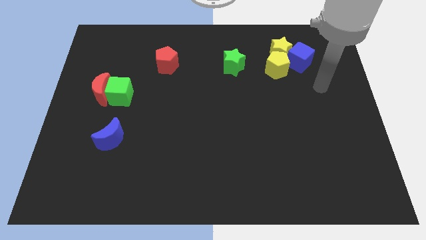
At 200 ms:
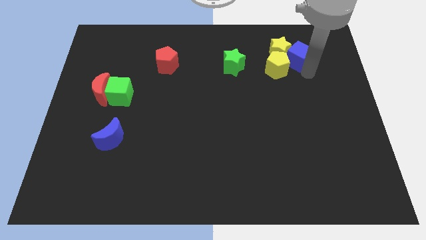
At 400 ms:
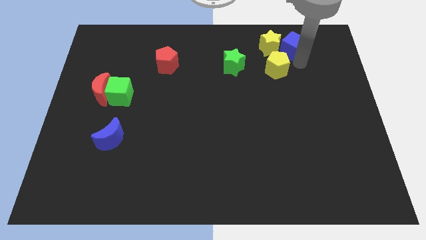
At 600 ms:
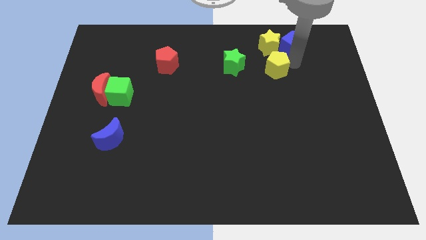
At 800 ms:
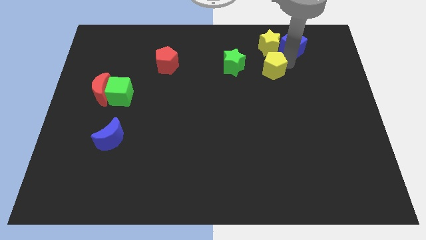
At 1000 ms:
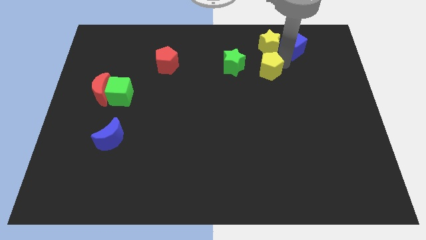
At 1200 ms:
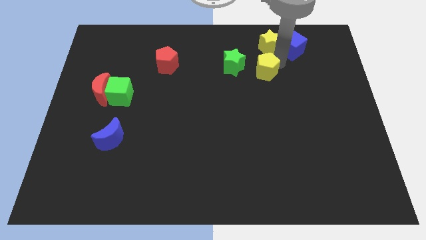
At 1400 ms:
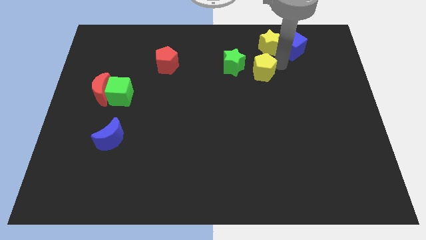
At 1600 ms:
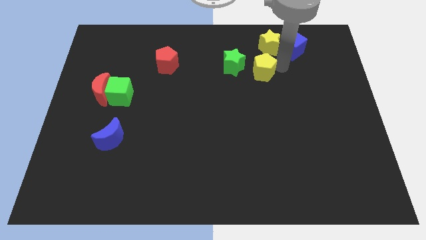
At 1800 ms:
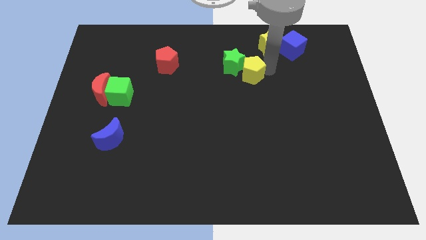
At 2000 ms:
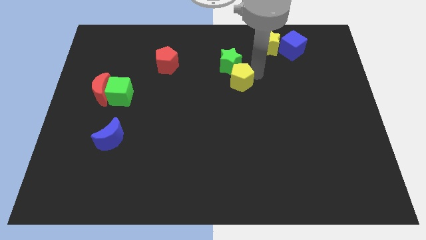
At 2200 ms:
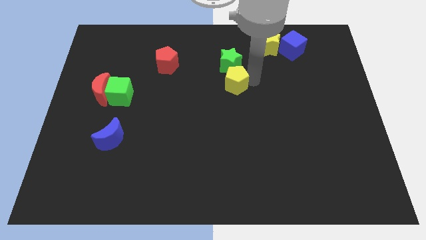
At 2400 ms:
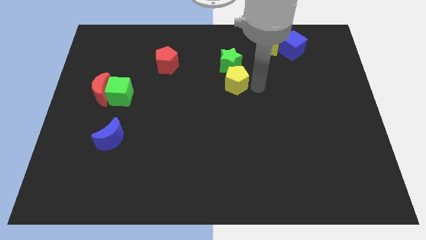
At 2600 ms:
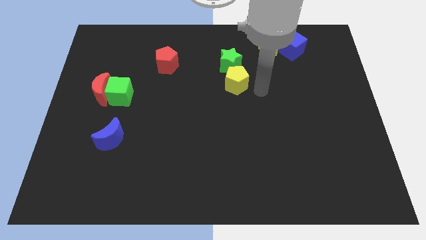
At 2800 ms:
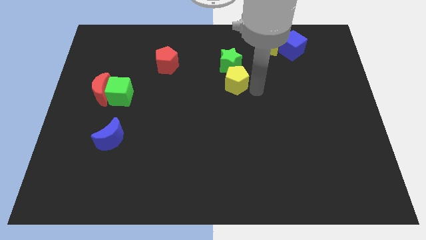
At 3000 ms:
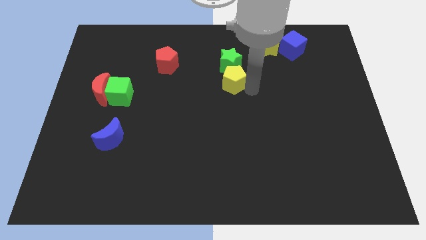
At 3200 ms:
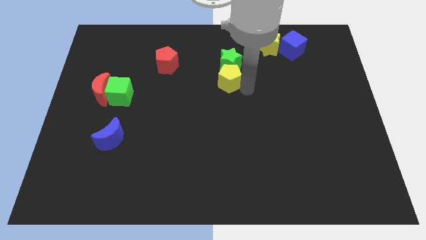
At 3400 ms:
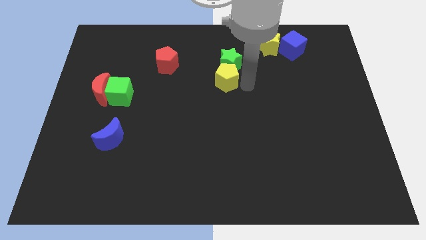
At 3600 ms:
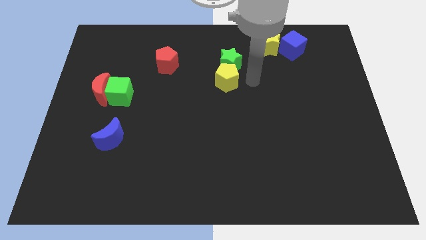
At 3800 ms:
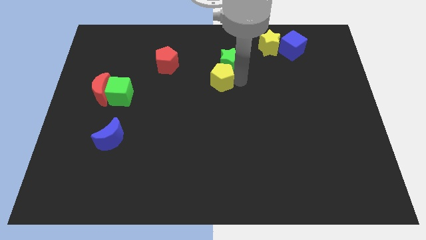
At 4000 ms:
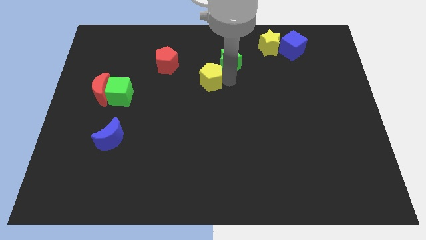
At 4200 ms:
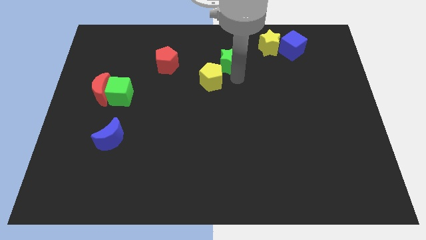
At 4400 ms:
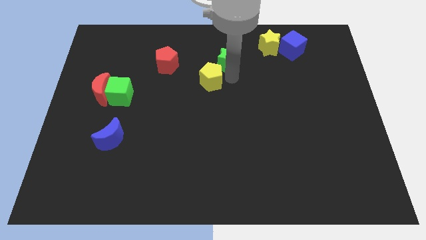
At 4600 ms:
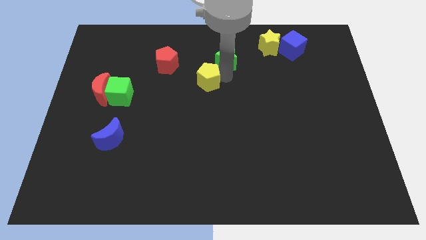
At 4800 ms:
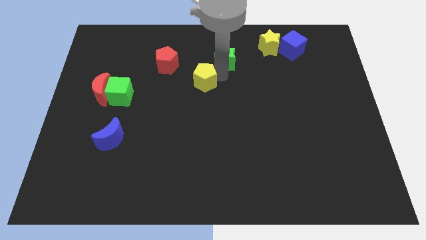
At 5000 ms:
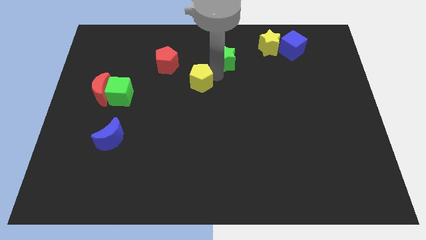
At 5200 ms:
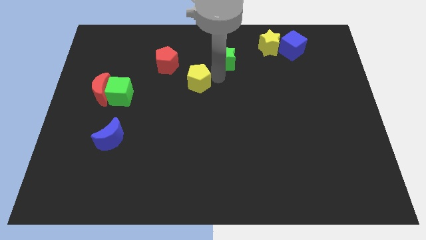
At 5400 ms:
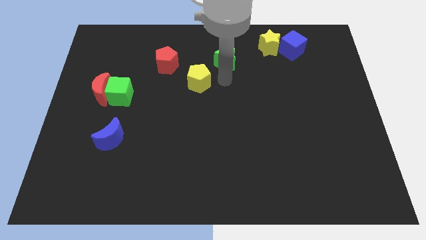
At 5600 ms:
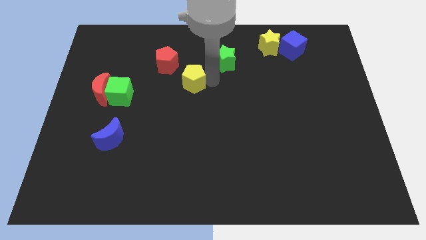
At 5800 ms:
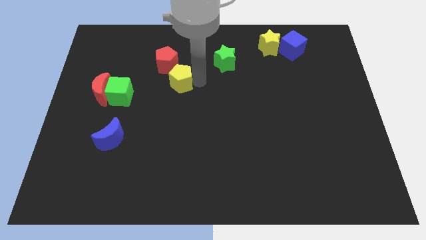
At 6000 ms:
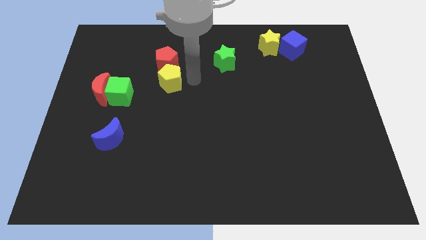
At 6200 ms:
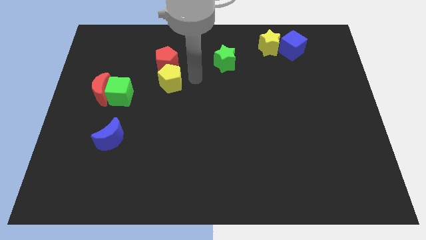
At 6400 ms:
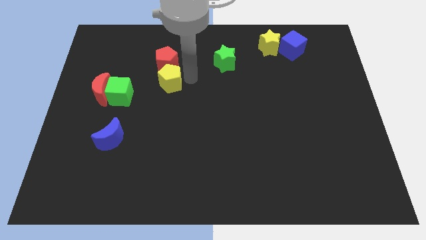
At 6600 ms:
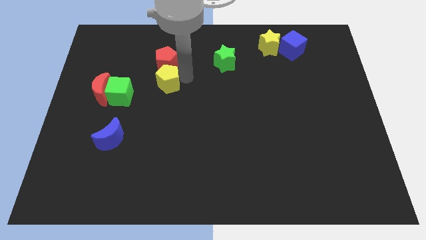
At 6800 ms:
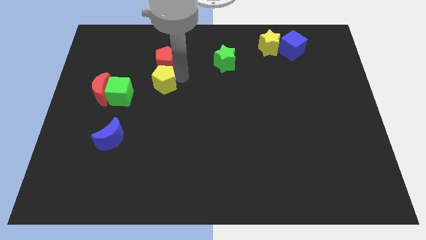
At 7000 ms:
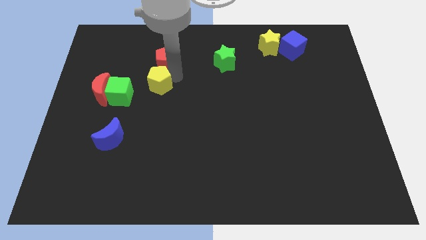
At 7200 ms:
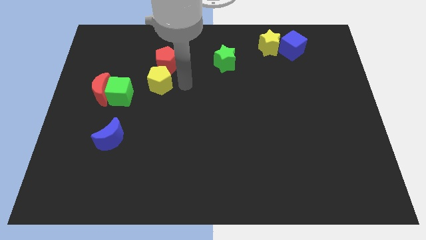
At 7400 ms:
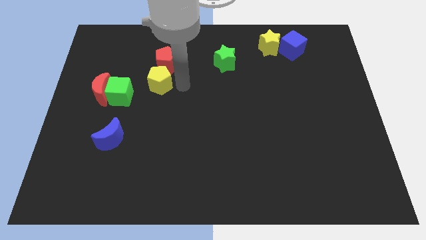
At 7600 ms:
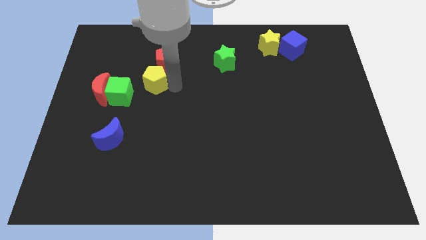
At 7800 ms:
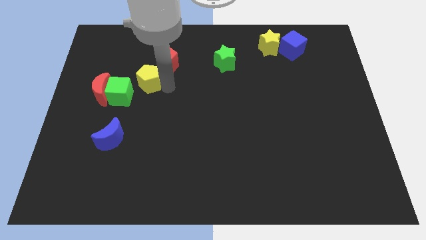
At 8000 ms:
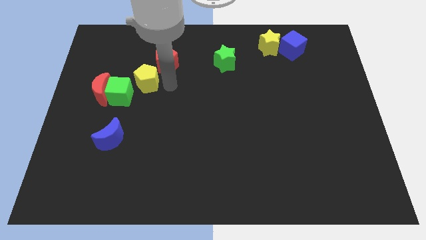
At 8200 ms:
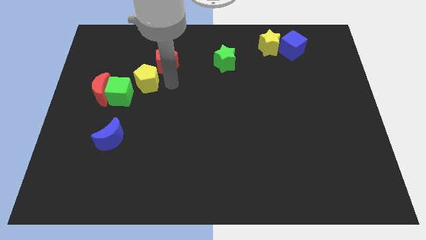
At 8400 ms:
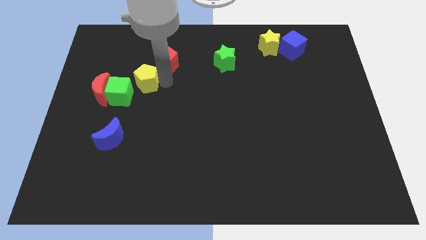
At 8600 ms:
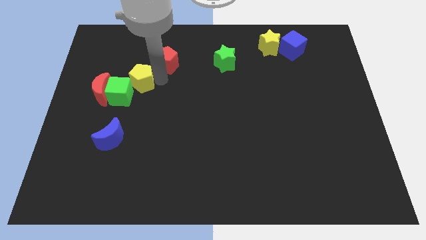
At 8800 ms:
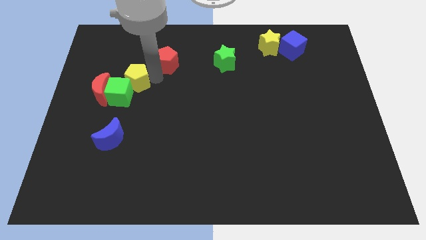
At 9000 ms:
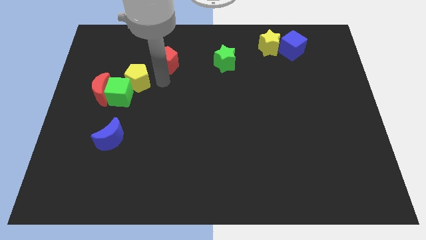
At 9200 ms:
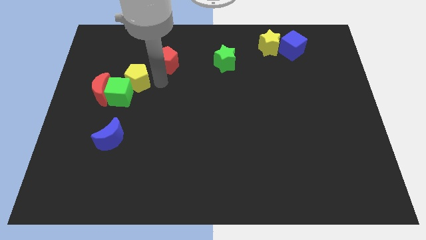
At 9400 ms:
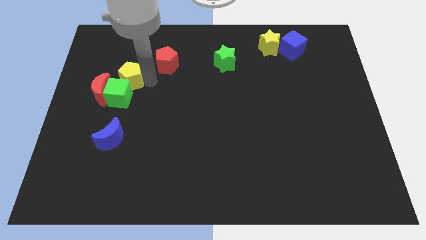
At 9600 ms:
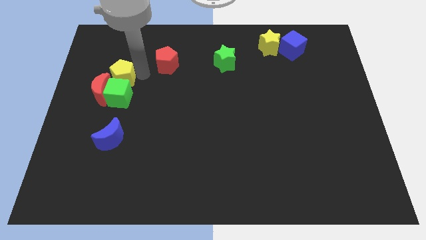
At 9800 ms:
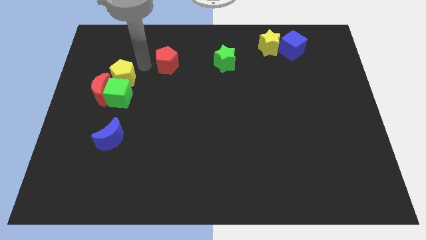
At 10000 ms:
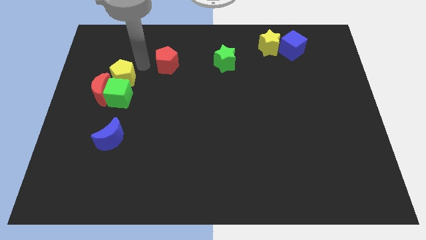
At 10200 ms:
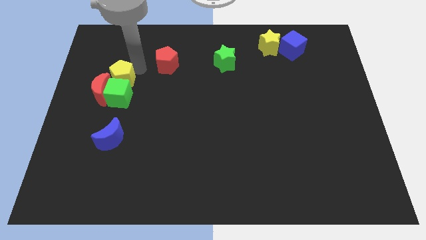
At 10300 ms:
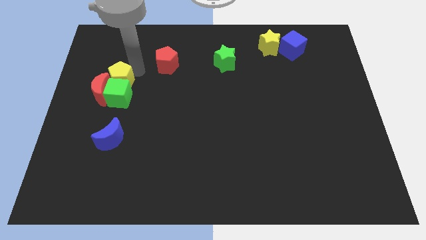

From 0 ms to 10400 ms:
move the yellow pentagon towards the red moon

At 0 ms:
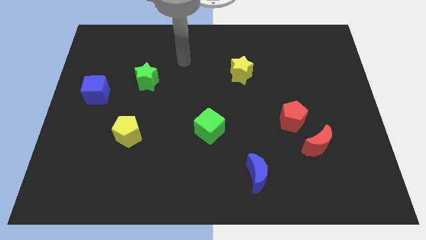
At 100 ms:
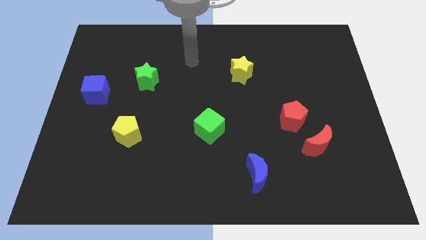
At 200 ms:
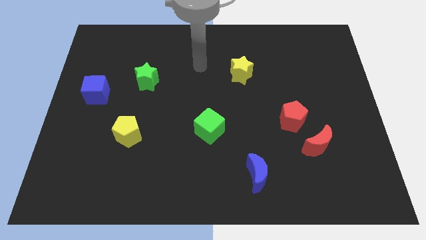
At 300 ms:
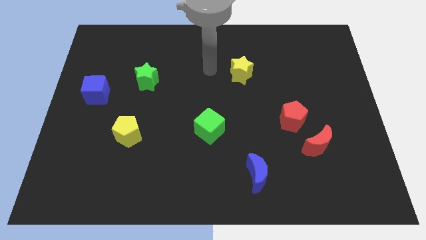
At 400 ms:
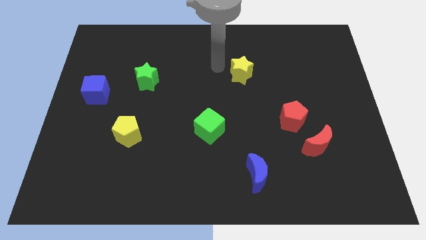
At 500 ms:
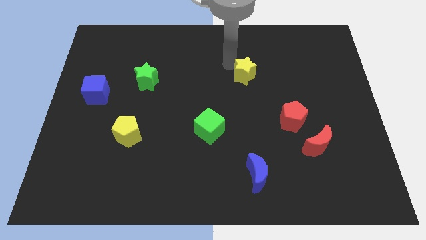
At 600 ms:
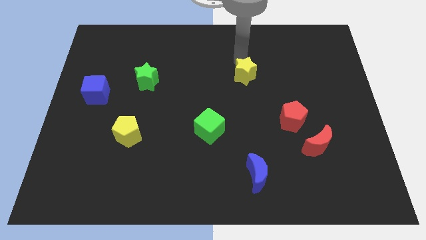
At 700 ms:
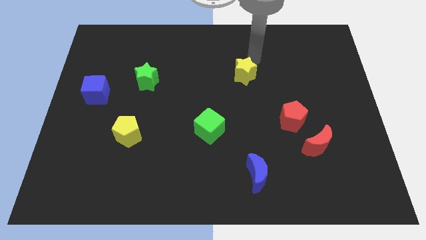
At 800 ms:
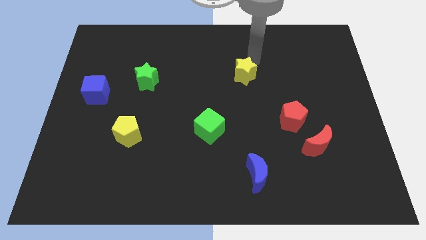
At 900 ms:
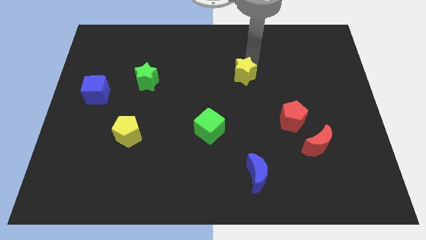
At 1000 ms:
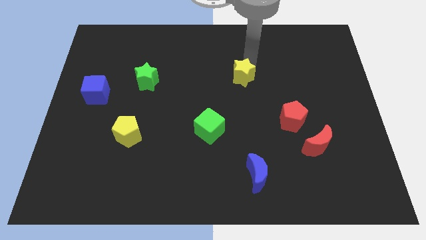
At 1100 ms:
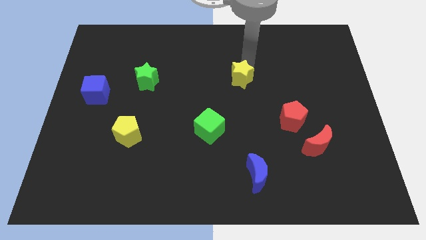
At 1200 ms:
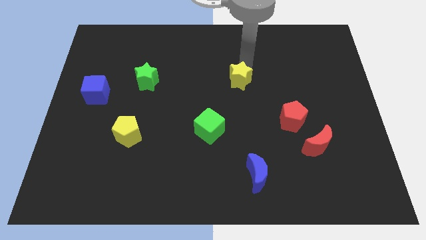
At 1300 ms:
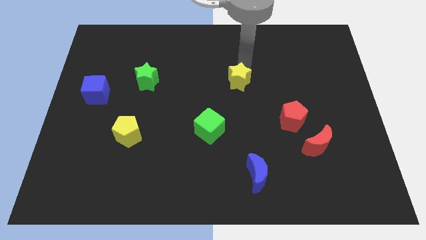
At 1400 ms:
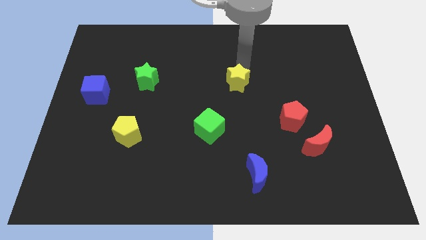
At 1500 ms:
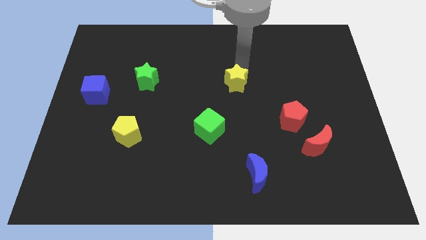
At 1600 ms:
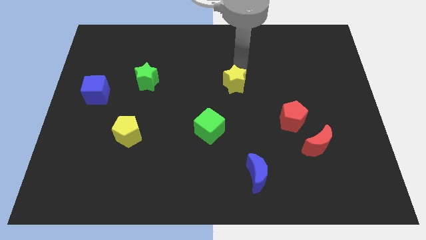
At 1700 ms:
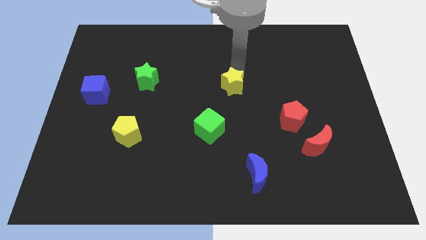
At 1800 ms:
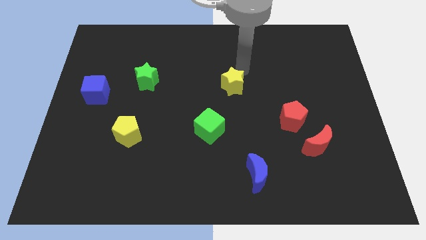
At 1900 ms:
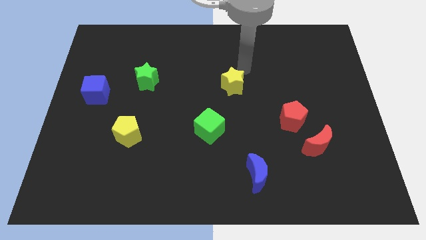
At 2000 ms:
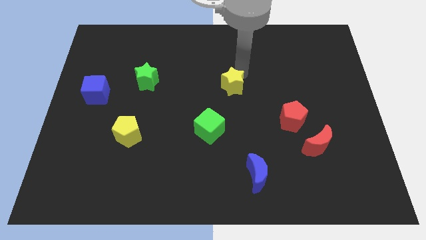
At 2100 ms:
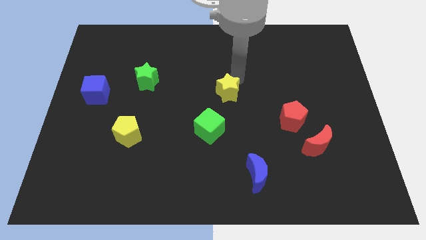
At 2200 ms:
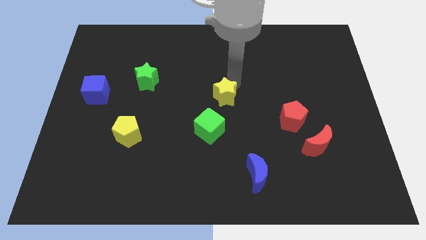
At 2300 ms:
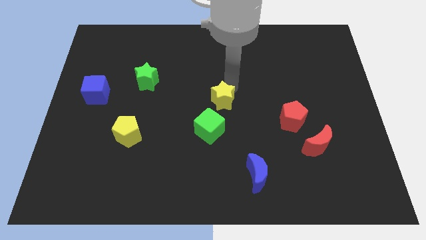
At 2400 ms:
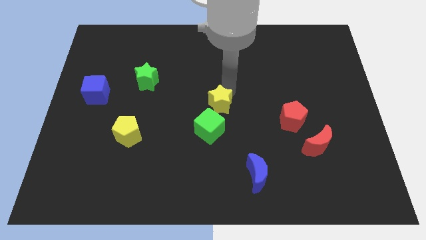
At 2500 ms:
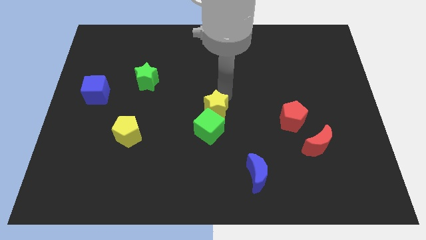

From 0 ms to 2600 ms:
put the yellow star to the green cube
